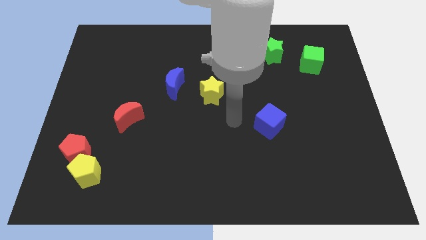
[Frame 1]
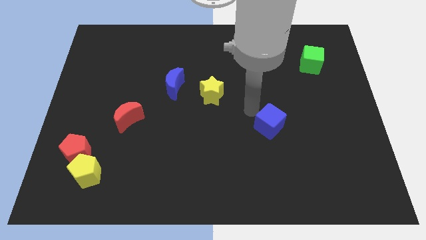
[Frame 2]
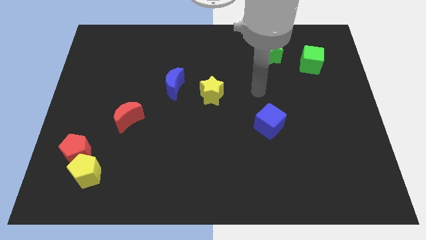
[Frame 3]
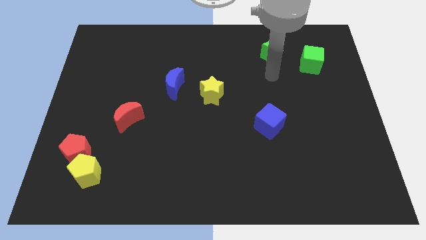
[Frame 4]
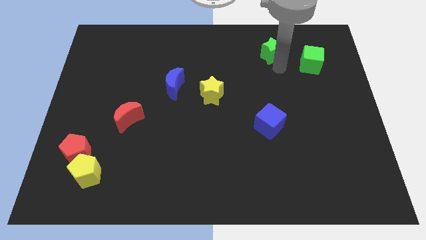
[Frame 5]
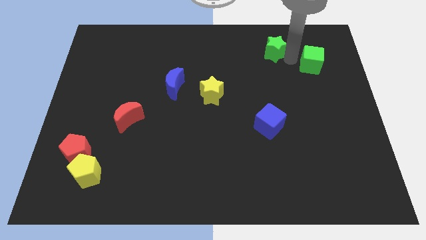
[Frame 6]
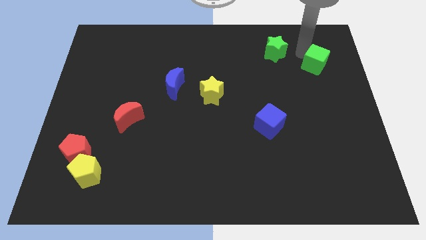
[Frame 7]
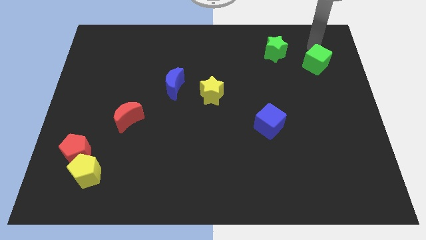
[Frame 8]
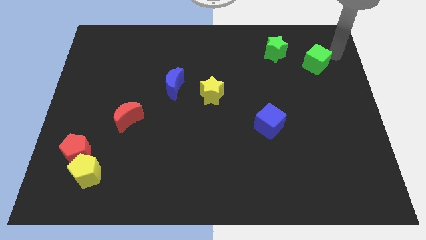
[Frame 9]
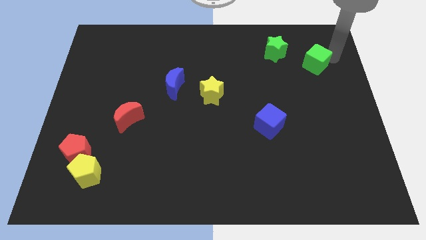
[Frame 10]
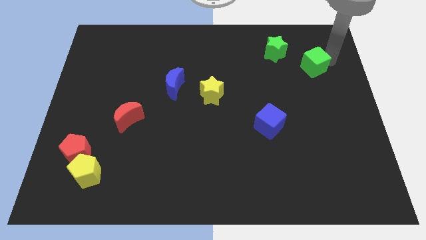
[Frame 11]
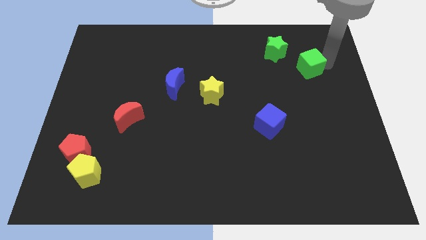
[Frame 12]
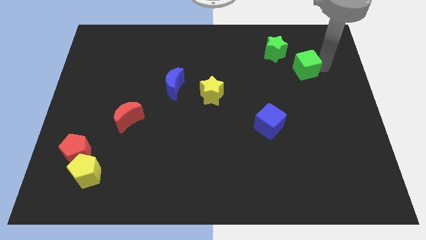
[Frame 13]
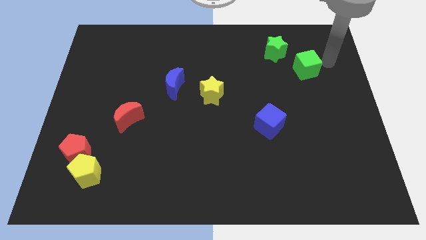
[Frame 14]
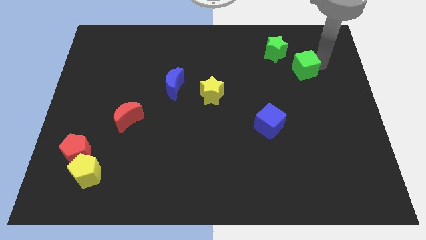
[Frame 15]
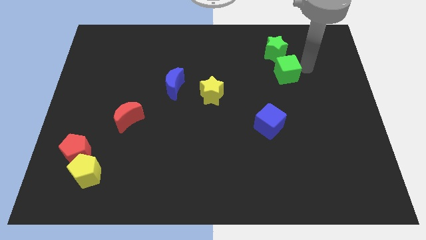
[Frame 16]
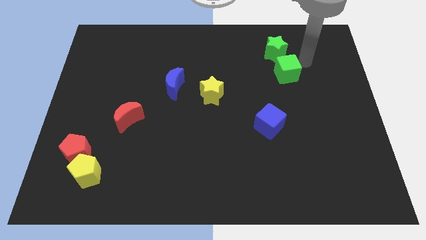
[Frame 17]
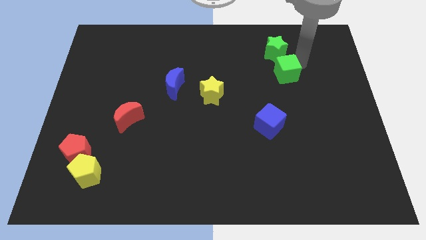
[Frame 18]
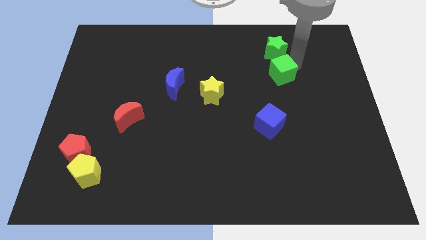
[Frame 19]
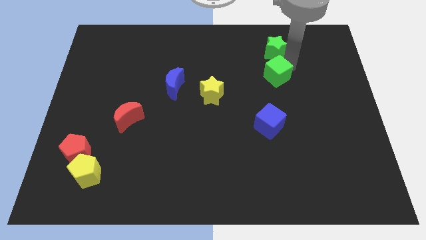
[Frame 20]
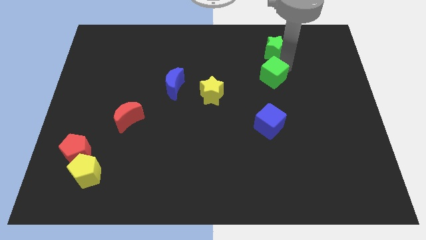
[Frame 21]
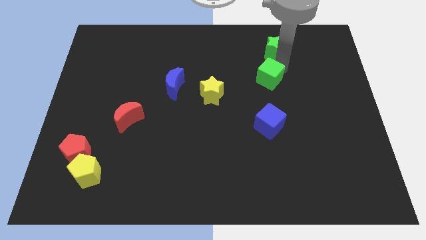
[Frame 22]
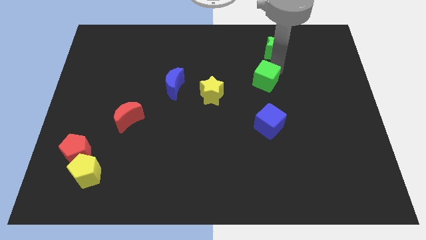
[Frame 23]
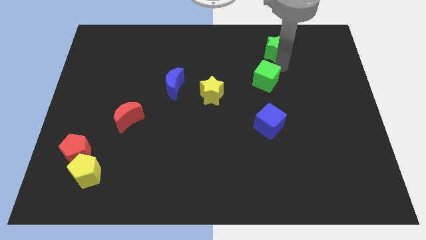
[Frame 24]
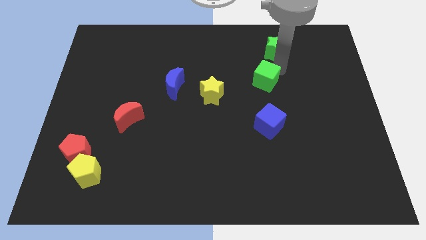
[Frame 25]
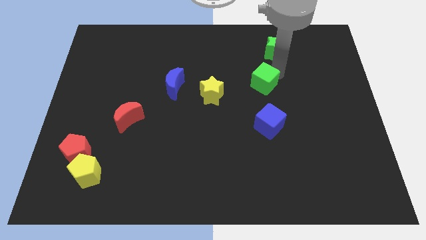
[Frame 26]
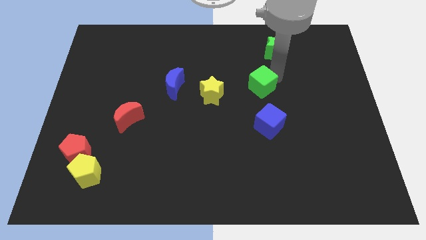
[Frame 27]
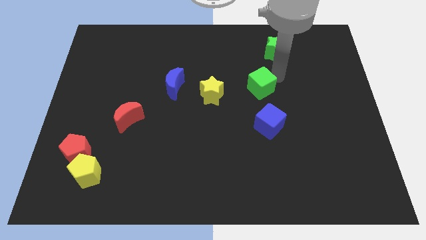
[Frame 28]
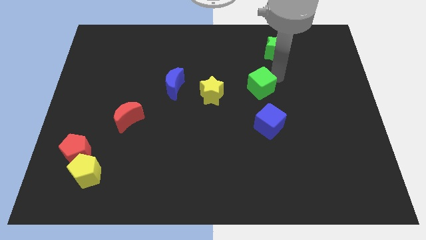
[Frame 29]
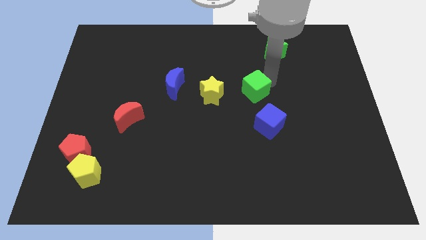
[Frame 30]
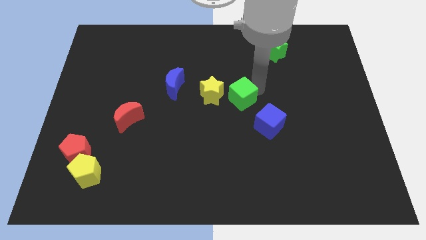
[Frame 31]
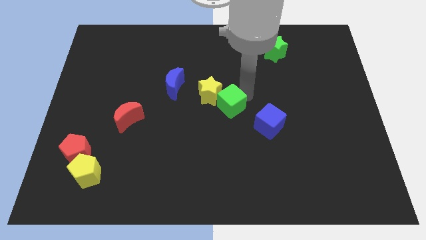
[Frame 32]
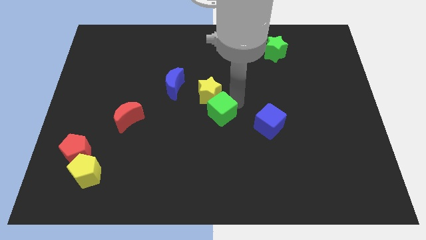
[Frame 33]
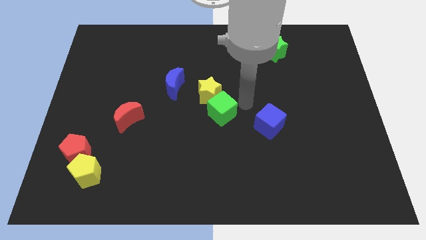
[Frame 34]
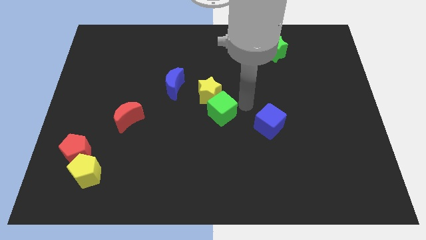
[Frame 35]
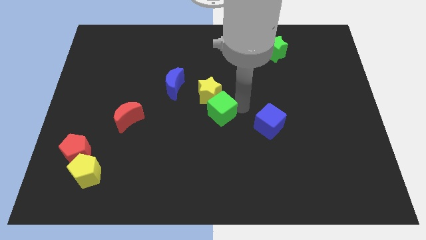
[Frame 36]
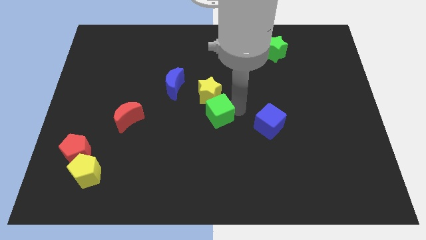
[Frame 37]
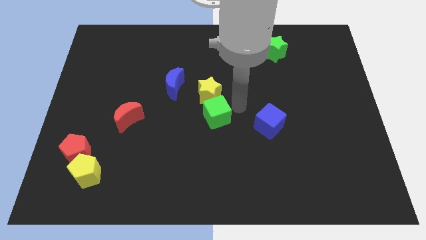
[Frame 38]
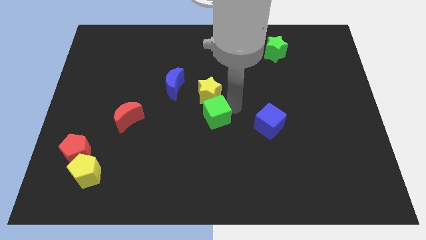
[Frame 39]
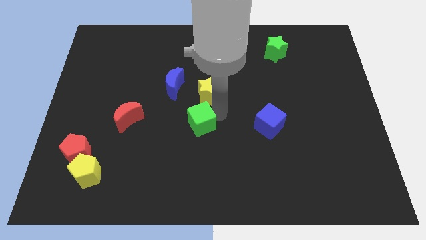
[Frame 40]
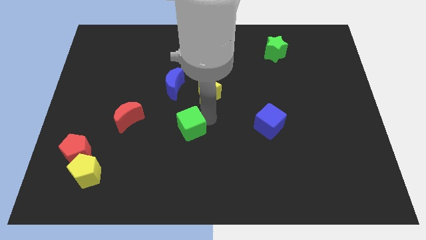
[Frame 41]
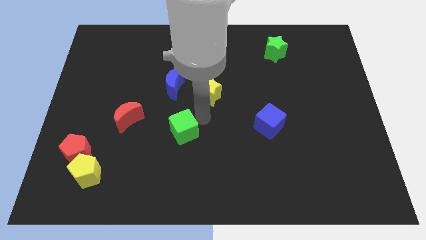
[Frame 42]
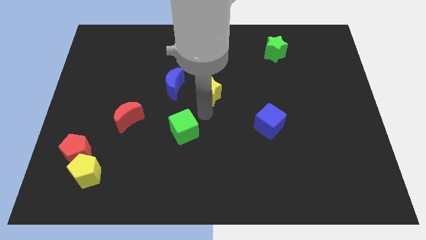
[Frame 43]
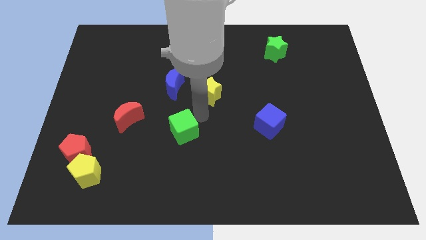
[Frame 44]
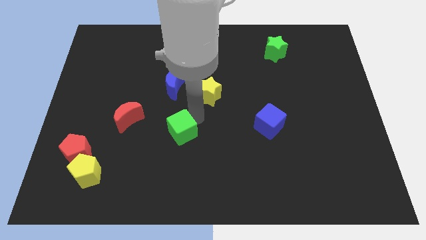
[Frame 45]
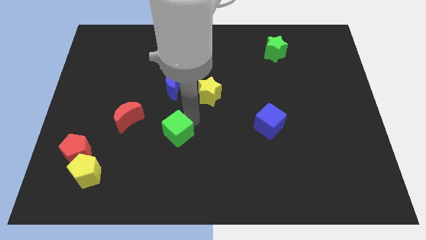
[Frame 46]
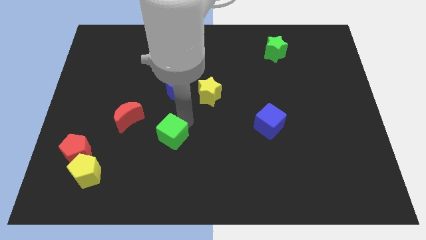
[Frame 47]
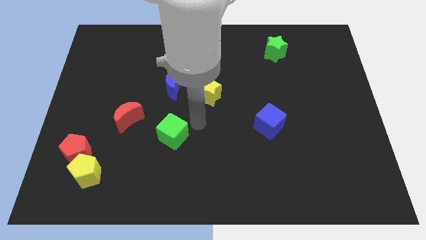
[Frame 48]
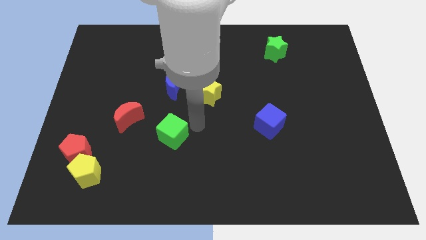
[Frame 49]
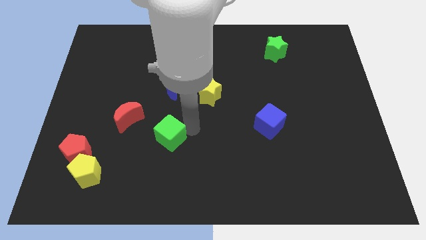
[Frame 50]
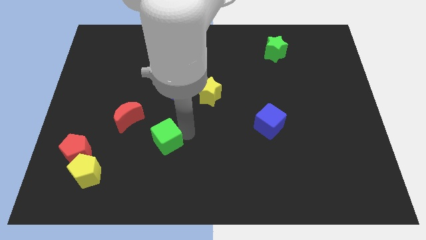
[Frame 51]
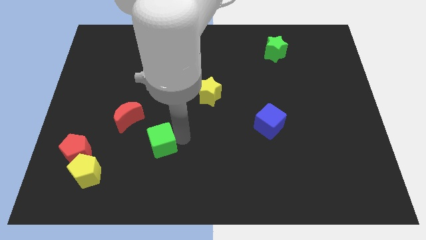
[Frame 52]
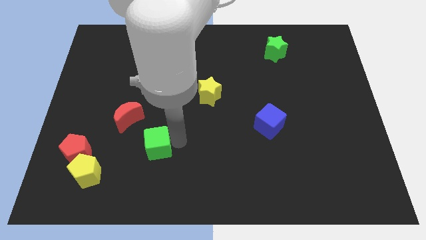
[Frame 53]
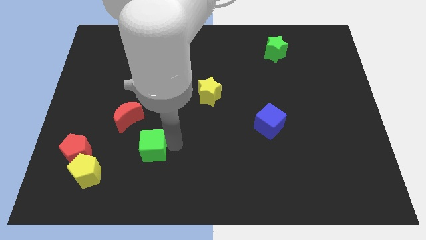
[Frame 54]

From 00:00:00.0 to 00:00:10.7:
put the green cube to the right side of the red pentagon

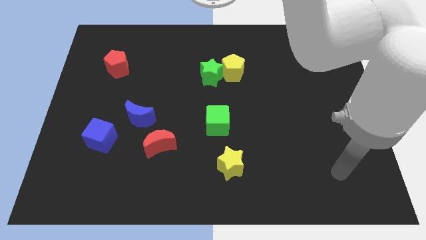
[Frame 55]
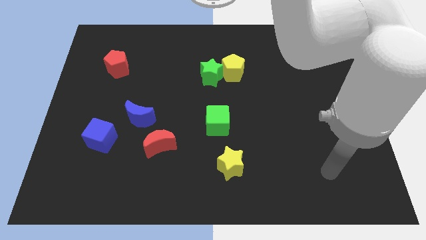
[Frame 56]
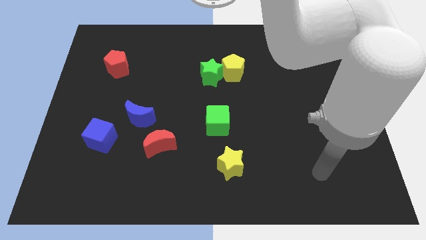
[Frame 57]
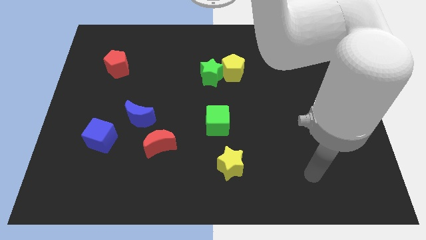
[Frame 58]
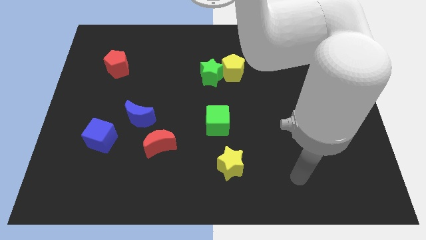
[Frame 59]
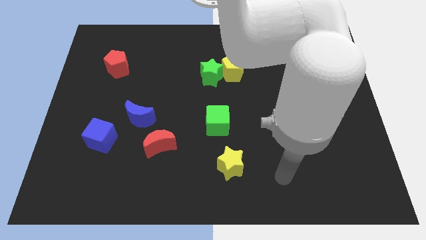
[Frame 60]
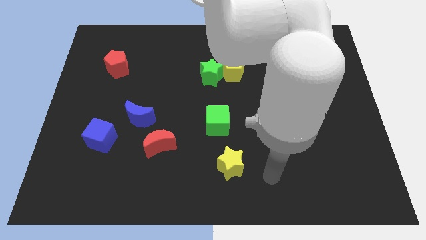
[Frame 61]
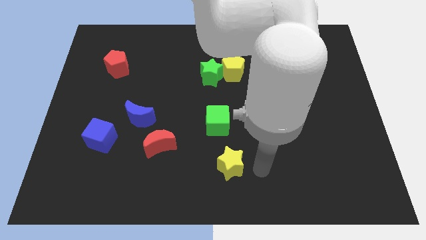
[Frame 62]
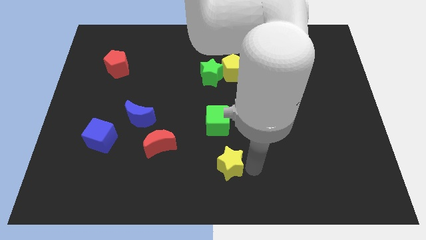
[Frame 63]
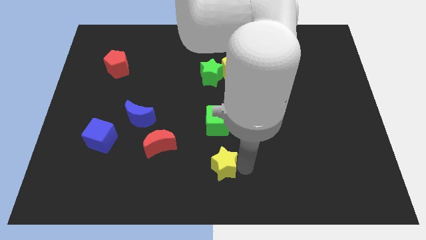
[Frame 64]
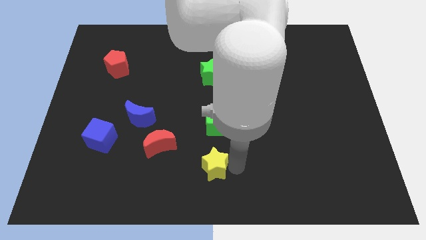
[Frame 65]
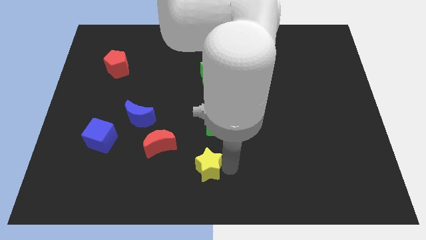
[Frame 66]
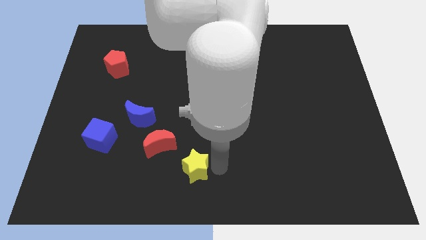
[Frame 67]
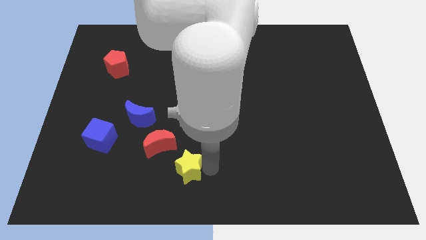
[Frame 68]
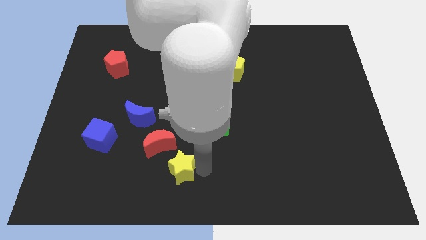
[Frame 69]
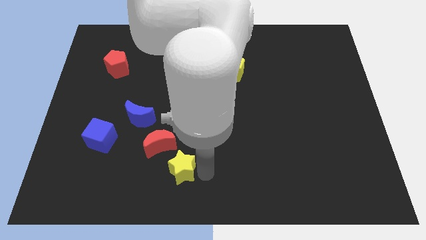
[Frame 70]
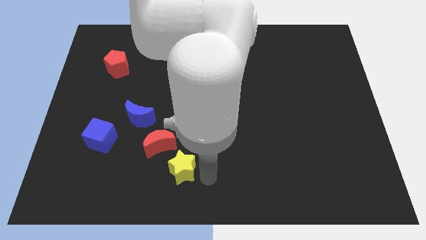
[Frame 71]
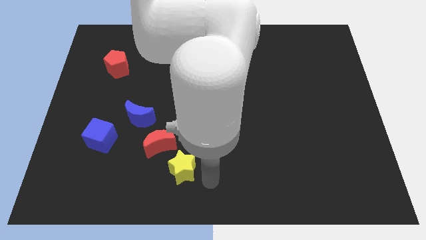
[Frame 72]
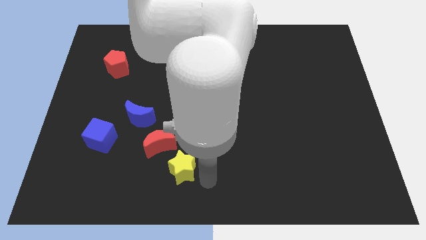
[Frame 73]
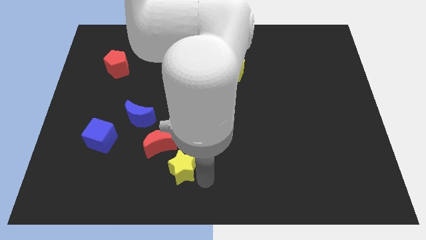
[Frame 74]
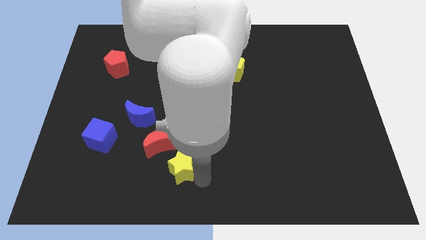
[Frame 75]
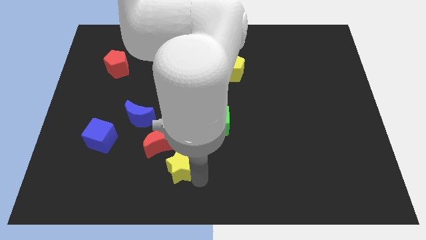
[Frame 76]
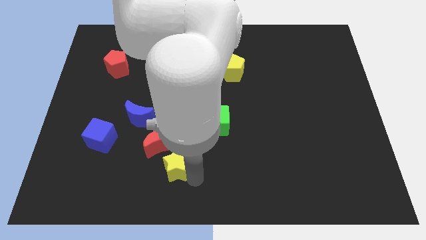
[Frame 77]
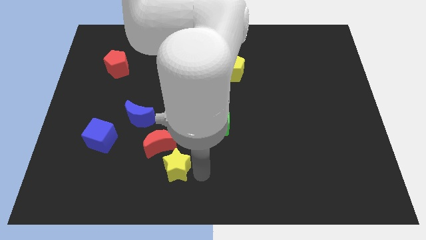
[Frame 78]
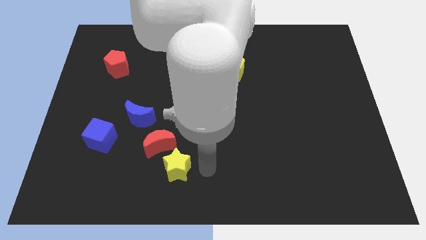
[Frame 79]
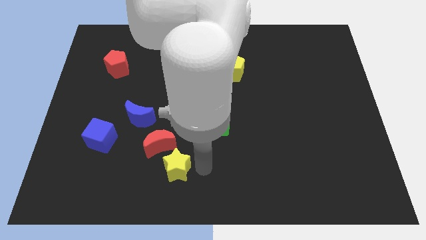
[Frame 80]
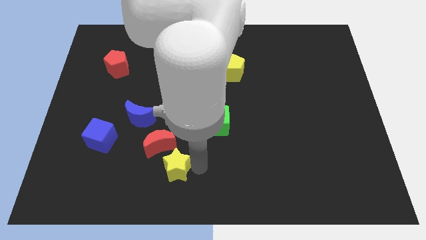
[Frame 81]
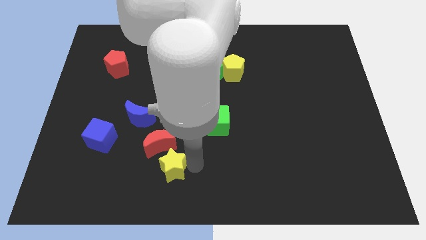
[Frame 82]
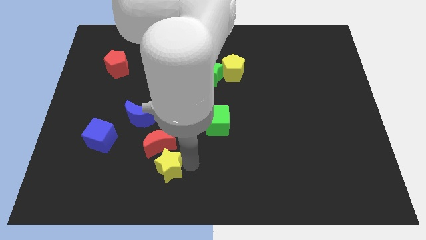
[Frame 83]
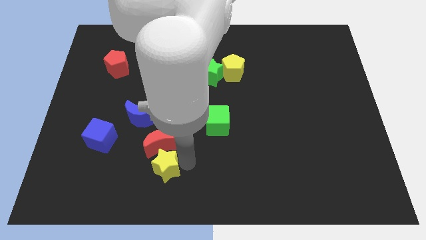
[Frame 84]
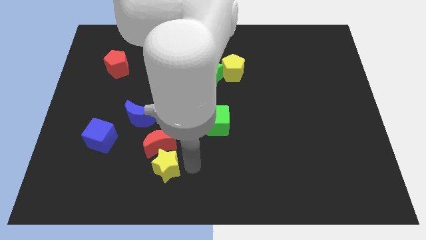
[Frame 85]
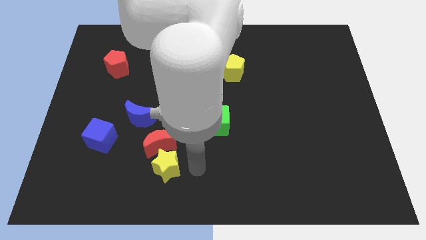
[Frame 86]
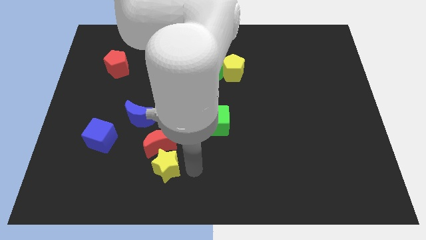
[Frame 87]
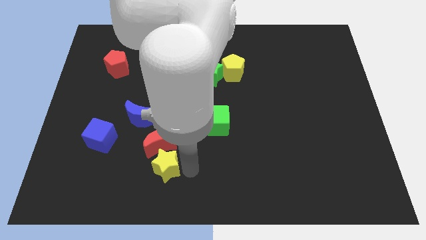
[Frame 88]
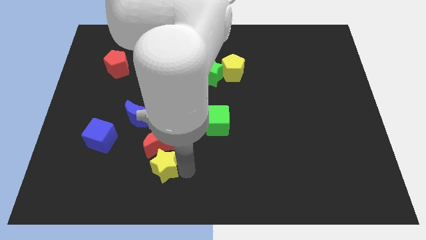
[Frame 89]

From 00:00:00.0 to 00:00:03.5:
put the yellow star to the bottom left of the red moon
